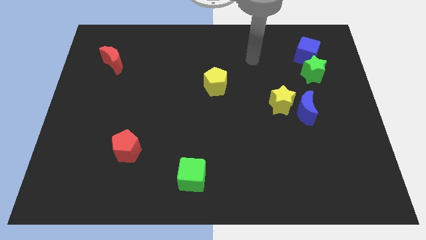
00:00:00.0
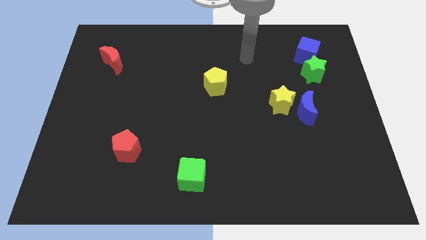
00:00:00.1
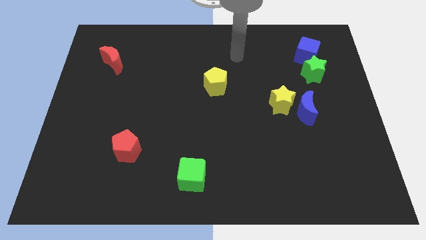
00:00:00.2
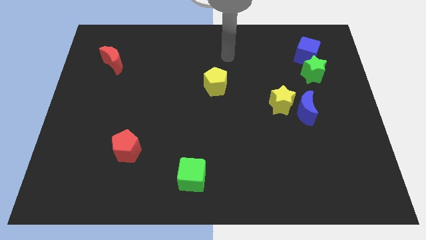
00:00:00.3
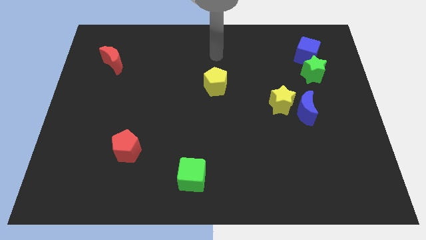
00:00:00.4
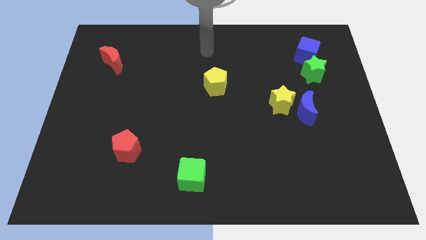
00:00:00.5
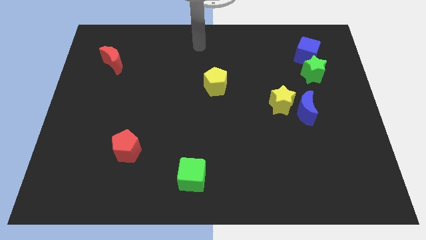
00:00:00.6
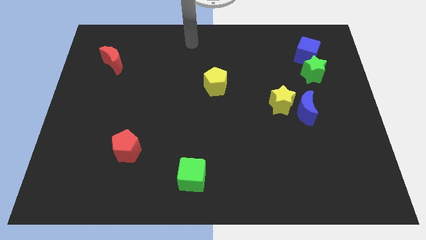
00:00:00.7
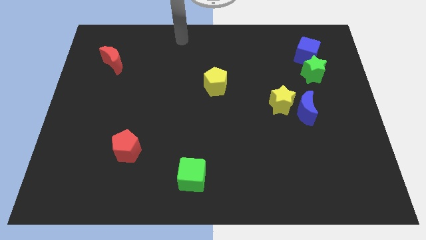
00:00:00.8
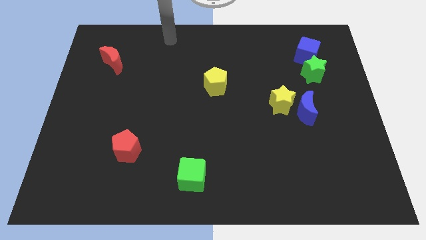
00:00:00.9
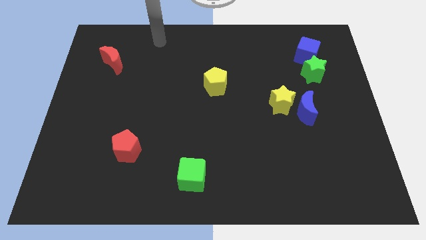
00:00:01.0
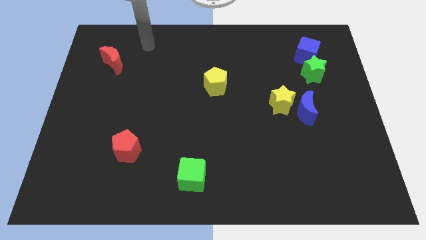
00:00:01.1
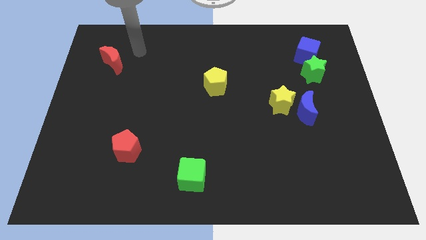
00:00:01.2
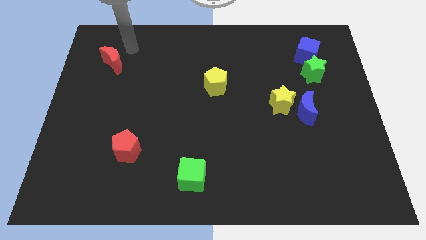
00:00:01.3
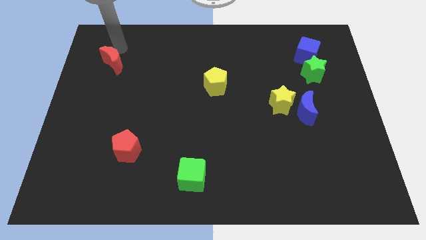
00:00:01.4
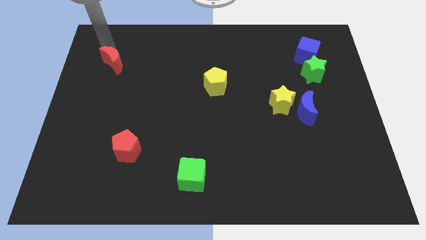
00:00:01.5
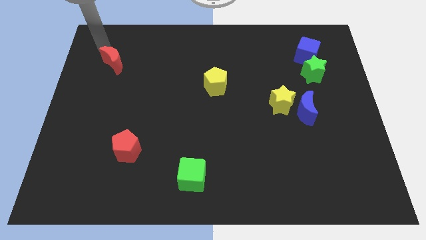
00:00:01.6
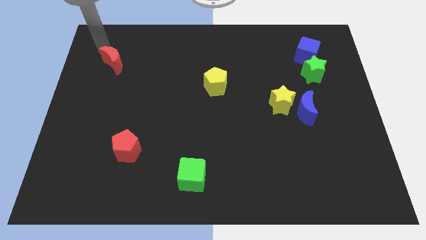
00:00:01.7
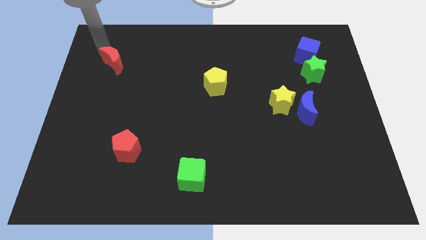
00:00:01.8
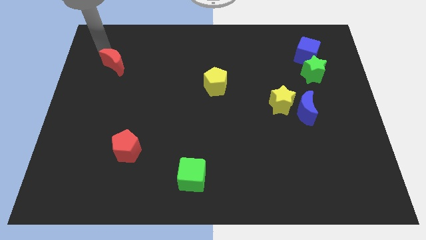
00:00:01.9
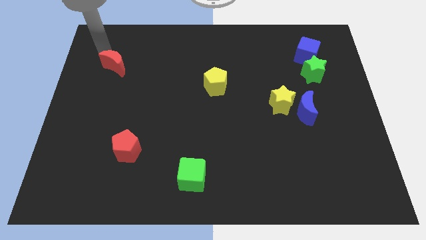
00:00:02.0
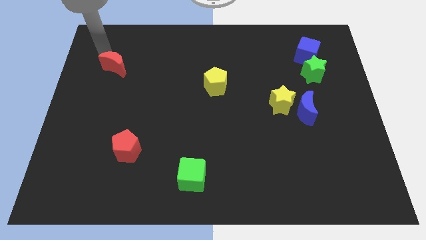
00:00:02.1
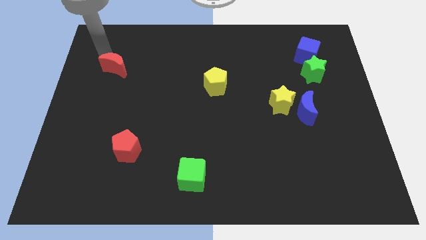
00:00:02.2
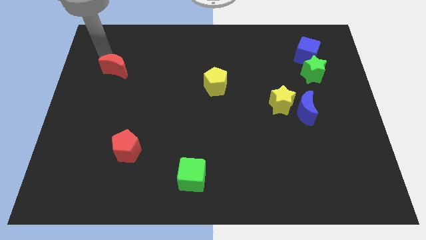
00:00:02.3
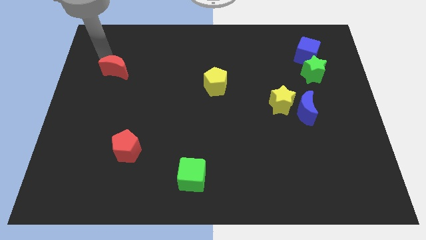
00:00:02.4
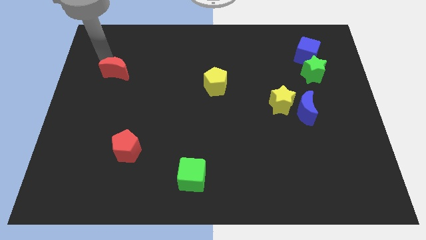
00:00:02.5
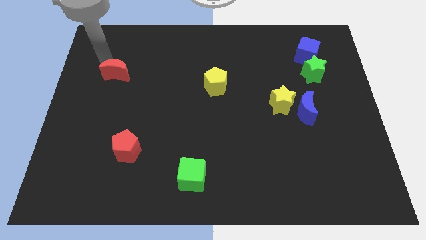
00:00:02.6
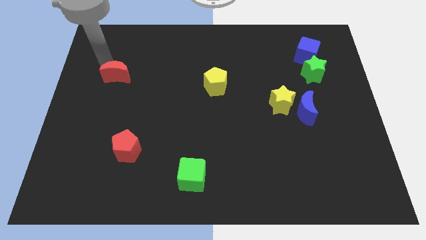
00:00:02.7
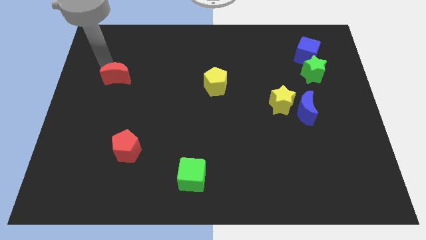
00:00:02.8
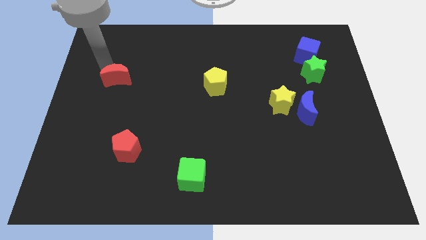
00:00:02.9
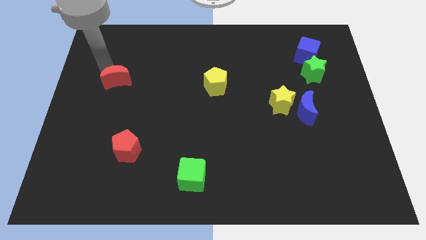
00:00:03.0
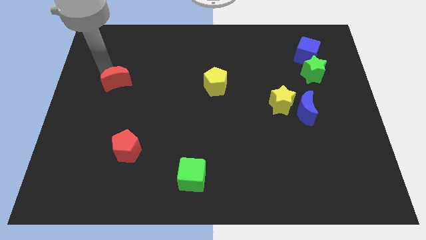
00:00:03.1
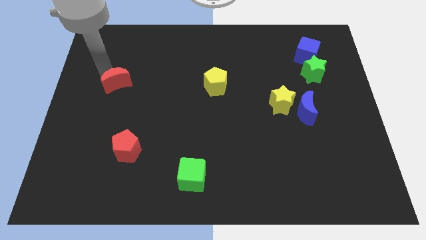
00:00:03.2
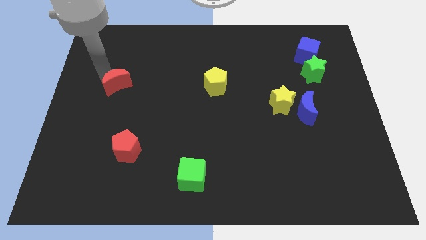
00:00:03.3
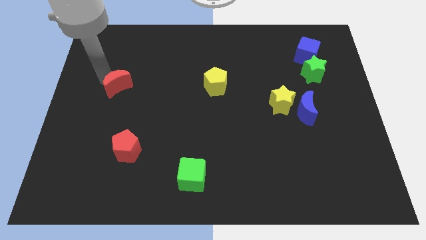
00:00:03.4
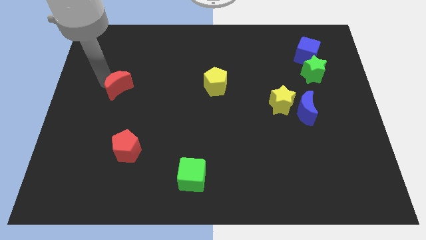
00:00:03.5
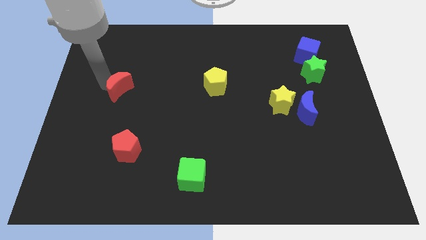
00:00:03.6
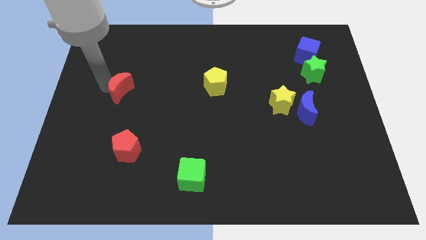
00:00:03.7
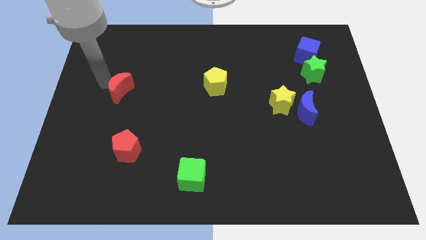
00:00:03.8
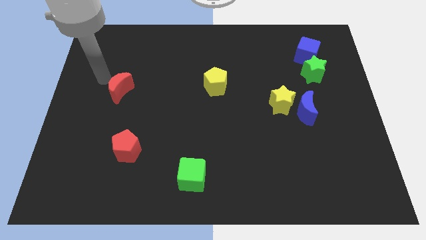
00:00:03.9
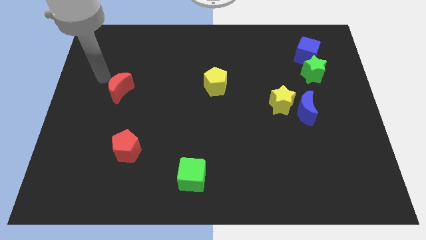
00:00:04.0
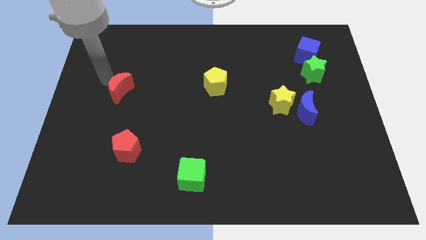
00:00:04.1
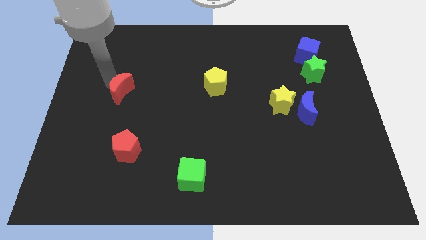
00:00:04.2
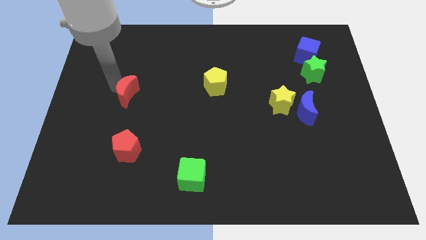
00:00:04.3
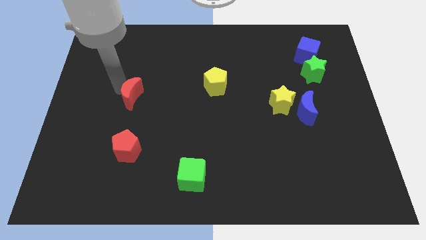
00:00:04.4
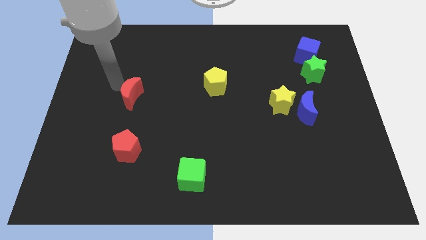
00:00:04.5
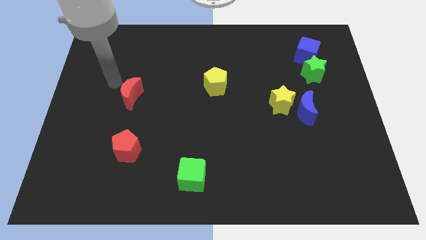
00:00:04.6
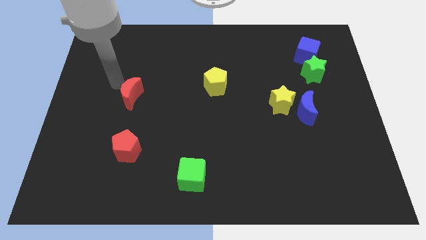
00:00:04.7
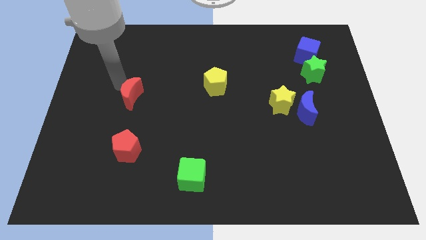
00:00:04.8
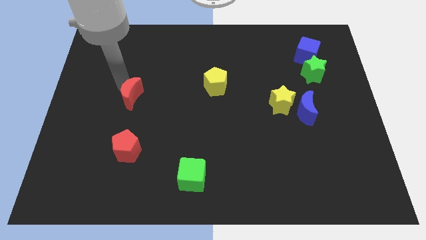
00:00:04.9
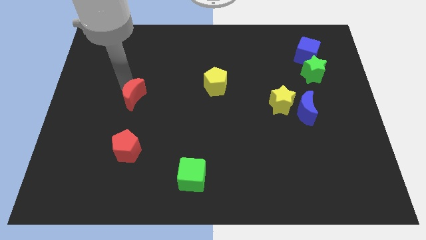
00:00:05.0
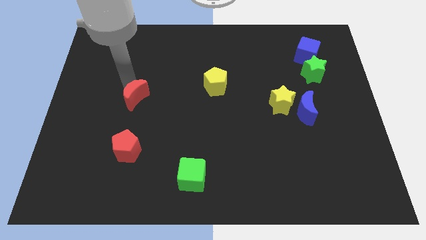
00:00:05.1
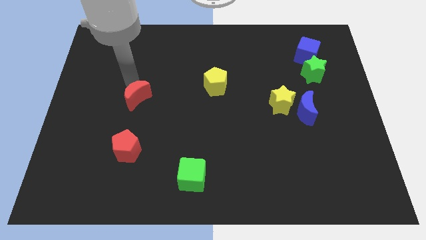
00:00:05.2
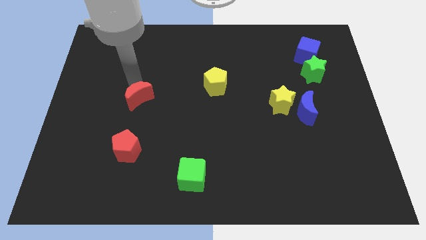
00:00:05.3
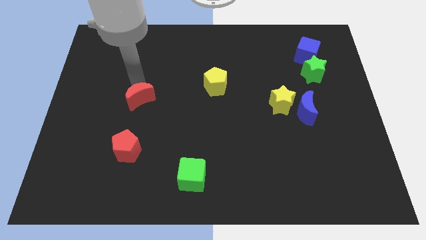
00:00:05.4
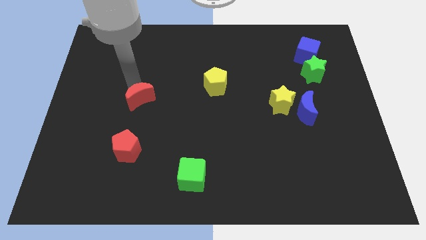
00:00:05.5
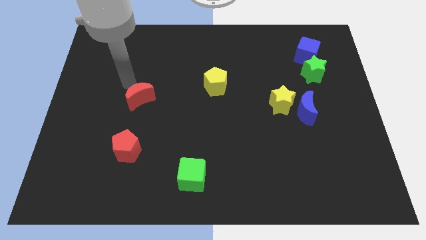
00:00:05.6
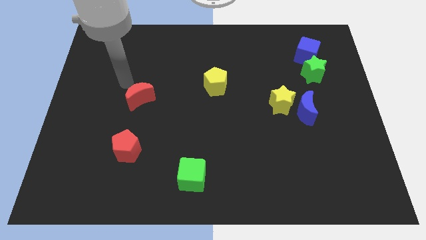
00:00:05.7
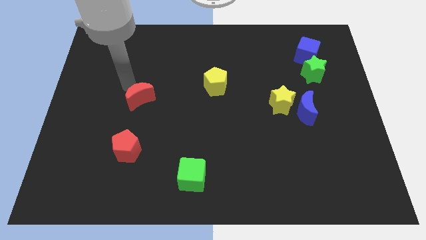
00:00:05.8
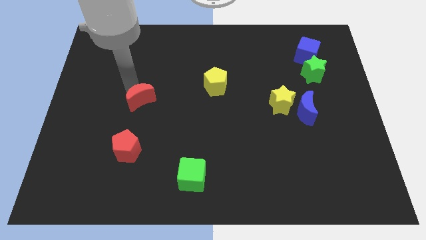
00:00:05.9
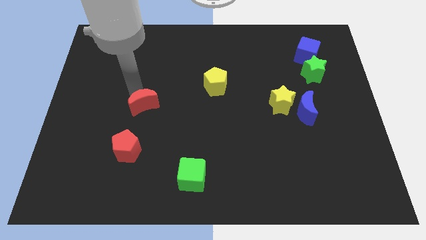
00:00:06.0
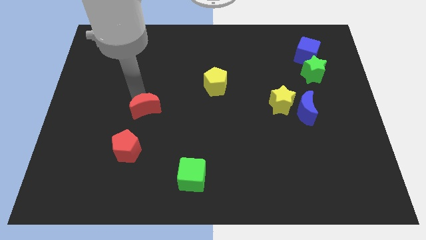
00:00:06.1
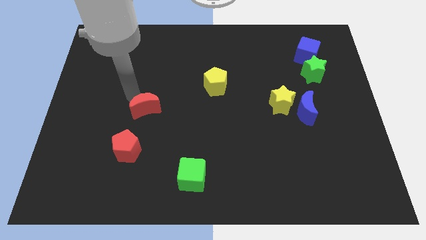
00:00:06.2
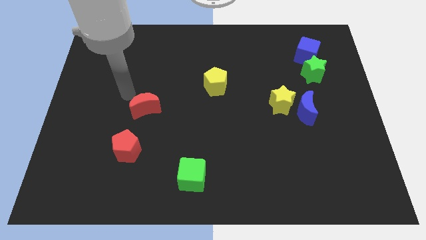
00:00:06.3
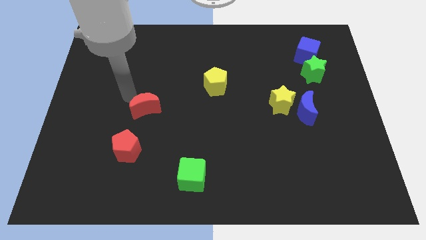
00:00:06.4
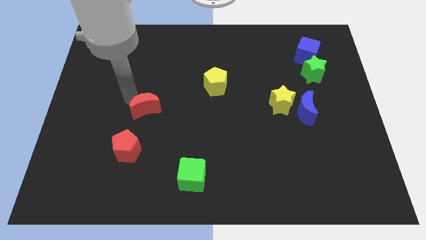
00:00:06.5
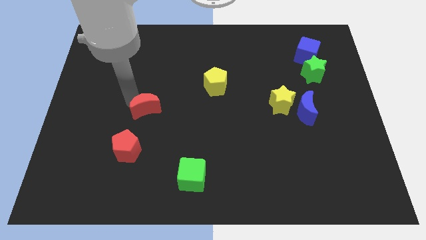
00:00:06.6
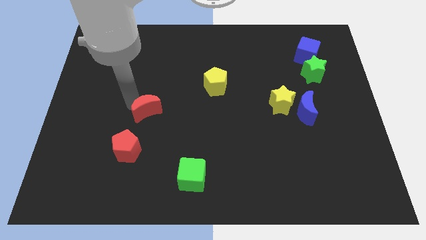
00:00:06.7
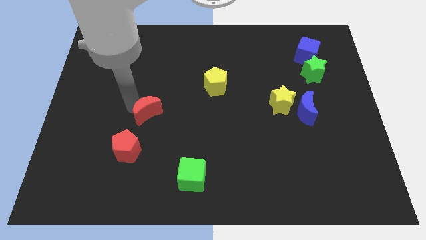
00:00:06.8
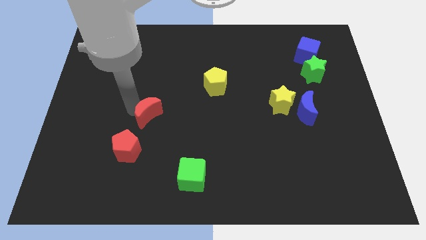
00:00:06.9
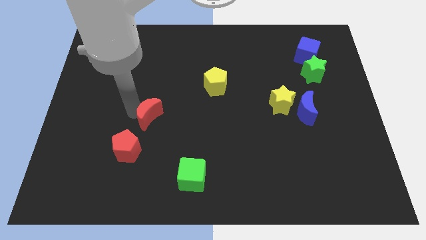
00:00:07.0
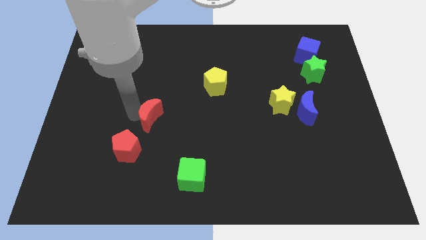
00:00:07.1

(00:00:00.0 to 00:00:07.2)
slide the red moon down and then to the right

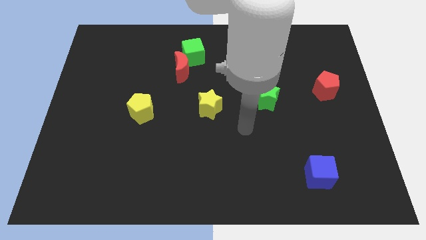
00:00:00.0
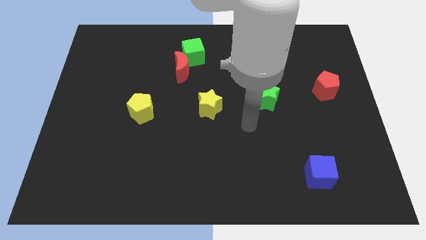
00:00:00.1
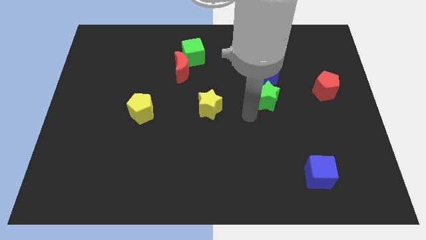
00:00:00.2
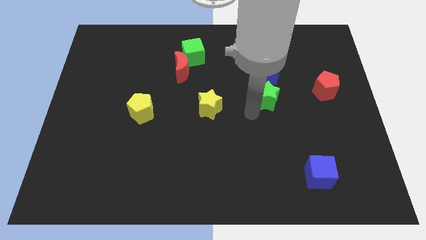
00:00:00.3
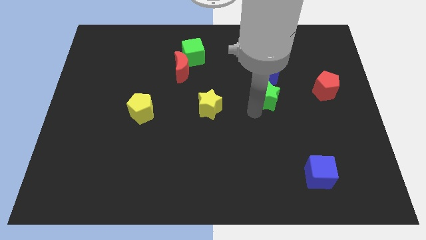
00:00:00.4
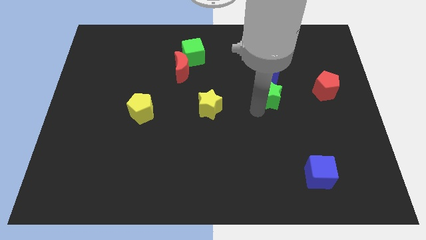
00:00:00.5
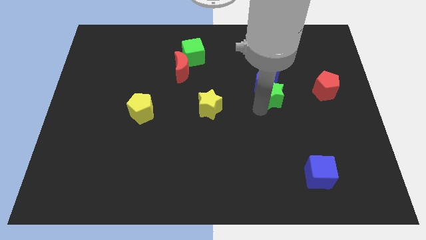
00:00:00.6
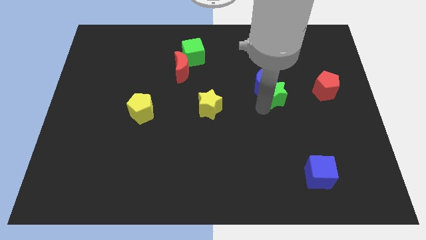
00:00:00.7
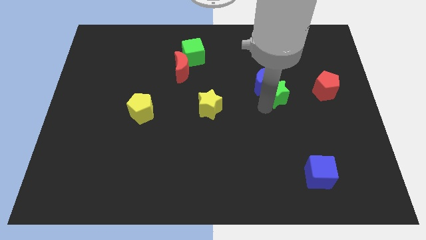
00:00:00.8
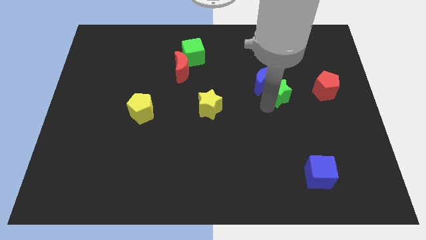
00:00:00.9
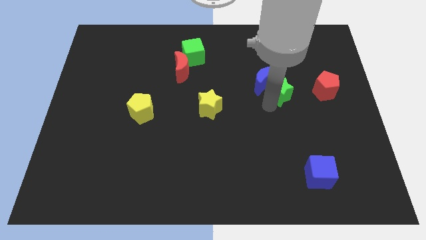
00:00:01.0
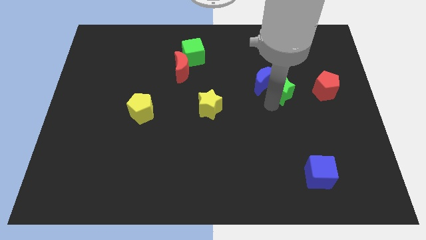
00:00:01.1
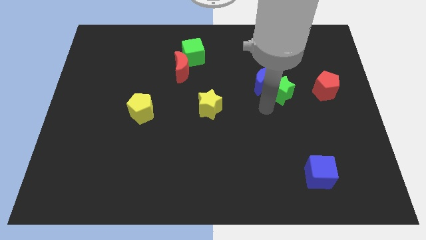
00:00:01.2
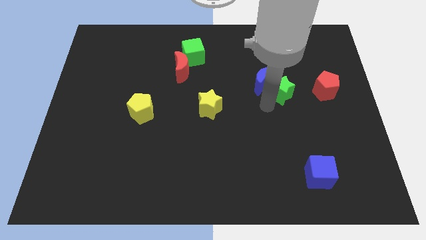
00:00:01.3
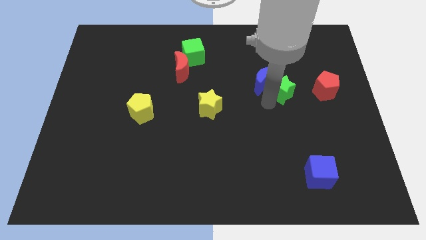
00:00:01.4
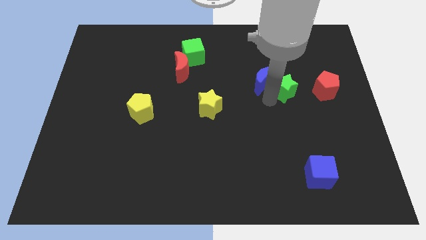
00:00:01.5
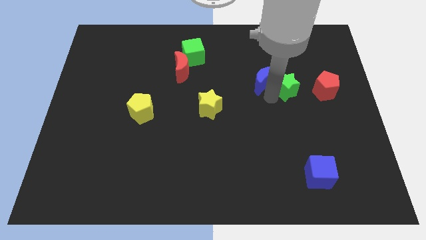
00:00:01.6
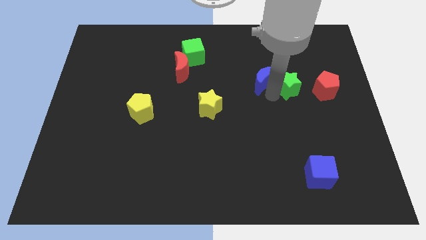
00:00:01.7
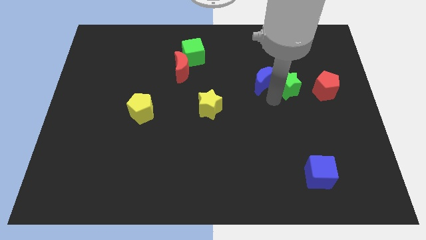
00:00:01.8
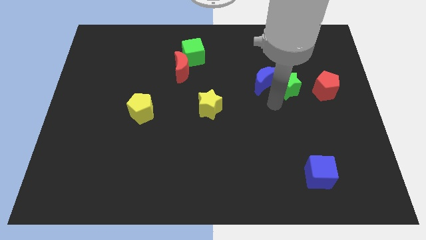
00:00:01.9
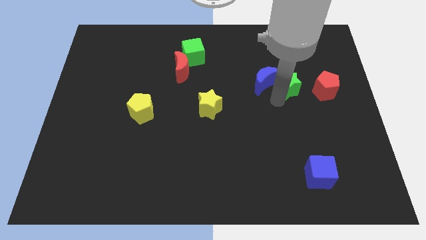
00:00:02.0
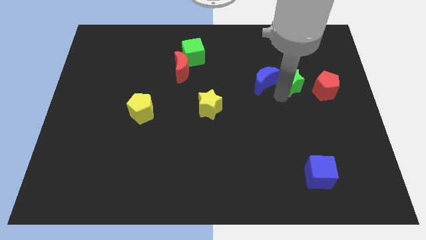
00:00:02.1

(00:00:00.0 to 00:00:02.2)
move the green star upwards and then right slightly
